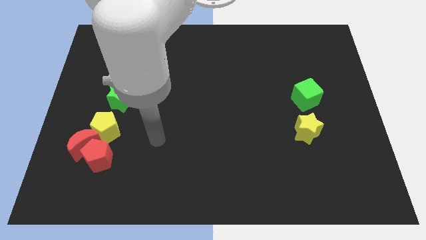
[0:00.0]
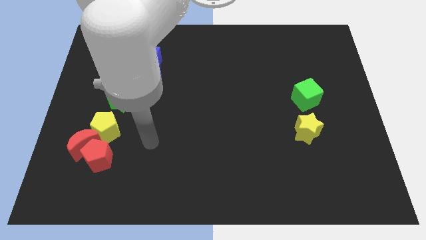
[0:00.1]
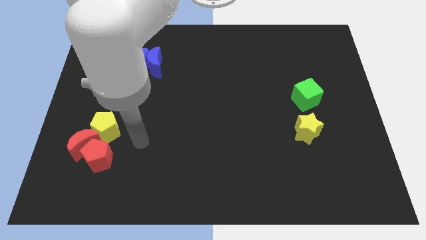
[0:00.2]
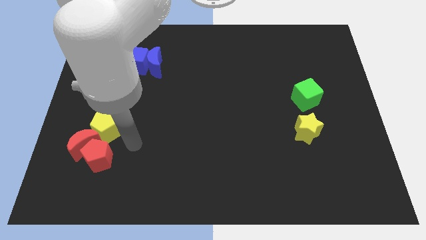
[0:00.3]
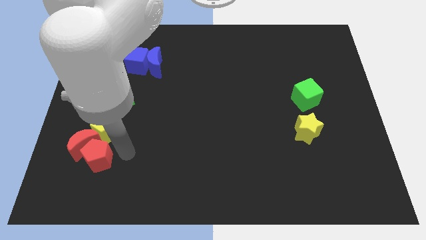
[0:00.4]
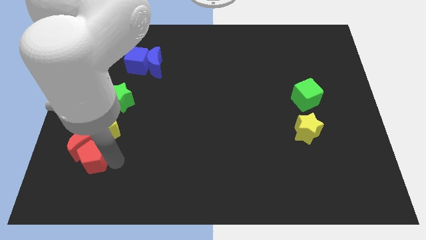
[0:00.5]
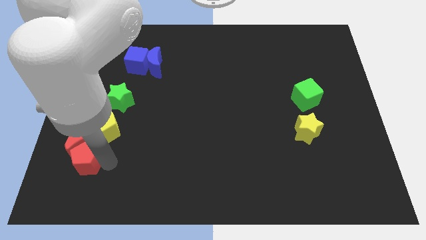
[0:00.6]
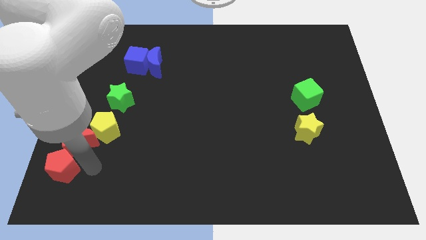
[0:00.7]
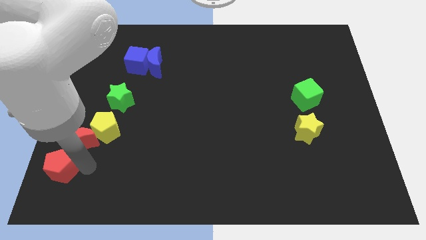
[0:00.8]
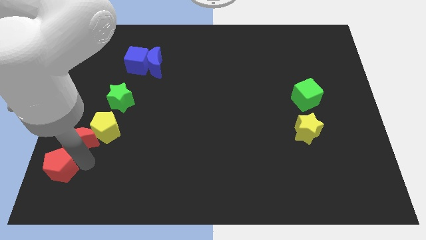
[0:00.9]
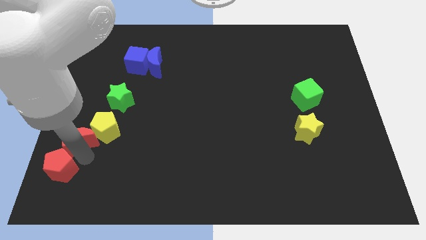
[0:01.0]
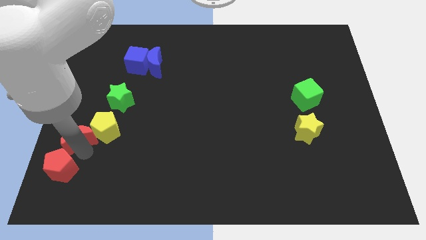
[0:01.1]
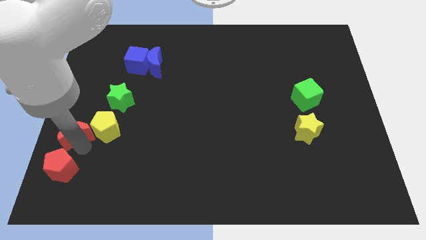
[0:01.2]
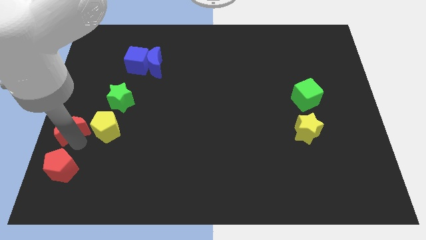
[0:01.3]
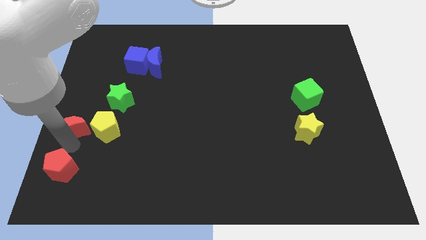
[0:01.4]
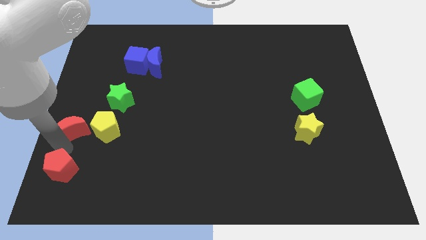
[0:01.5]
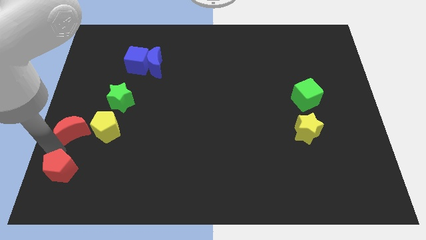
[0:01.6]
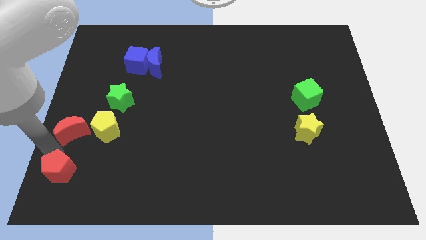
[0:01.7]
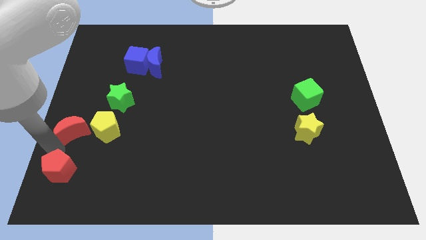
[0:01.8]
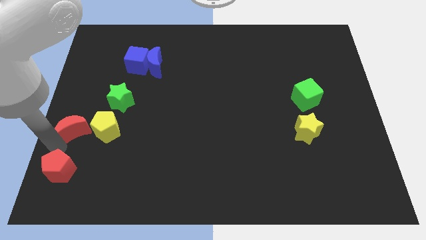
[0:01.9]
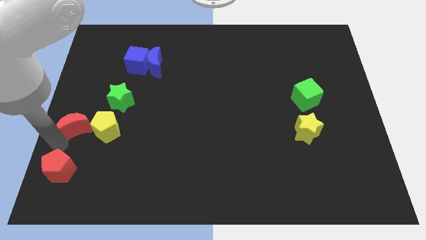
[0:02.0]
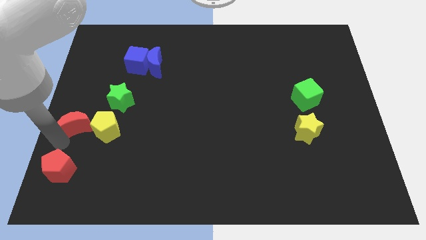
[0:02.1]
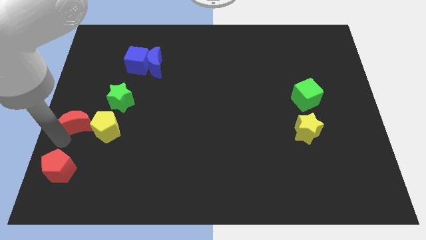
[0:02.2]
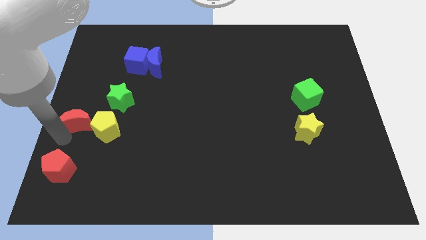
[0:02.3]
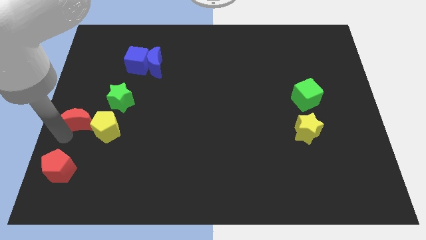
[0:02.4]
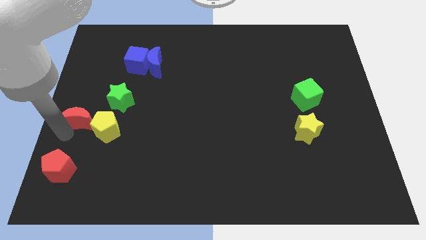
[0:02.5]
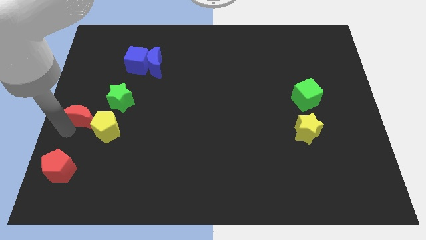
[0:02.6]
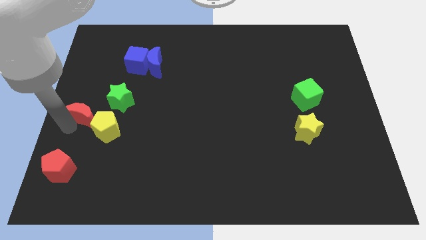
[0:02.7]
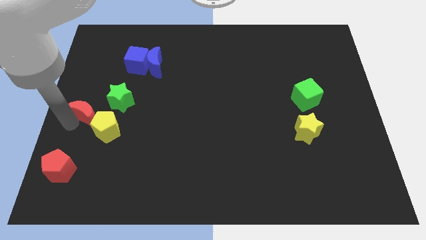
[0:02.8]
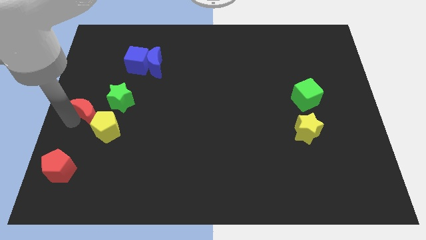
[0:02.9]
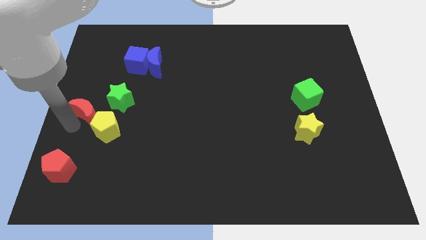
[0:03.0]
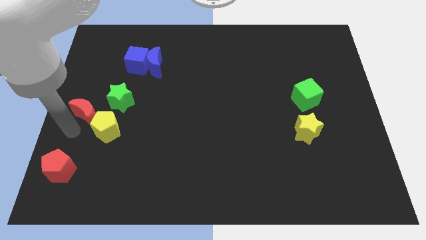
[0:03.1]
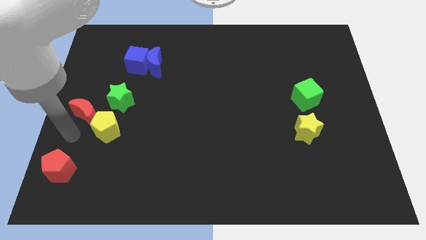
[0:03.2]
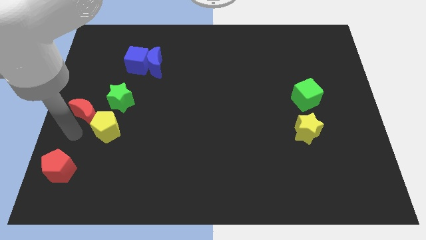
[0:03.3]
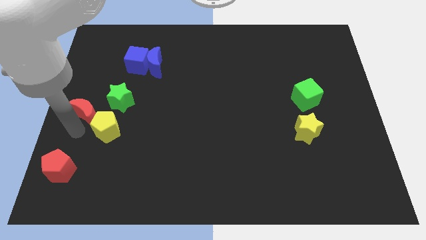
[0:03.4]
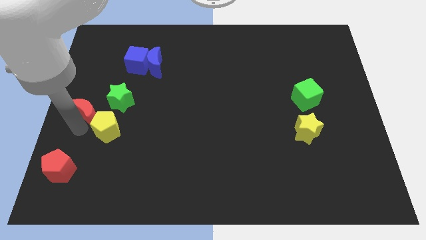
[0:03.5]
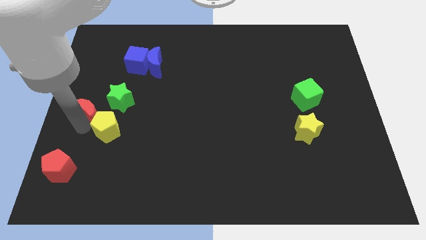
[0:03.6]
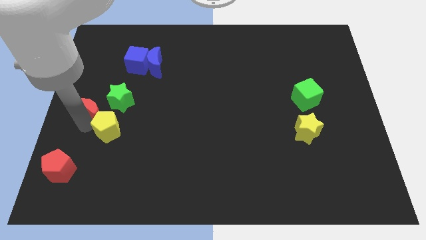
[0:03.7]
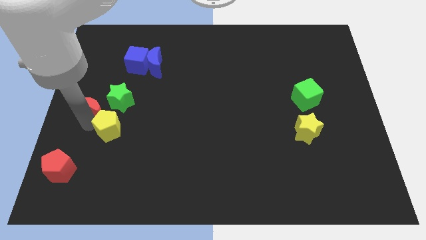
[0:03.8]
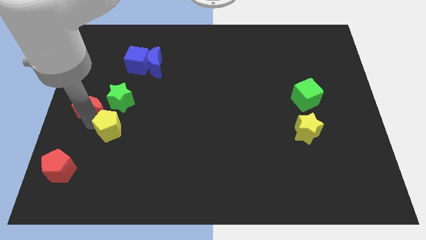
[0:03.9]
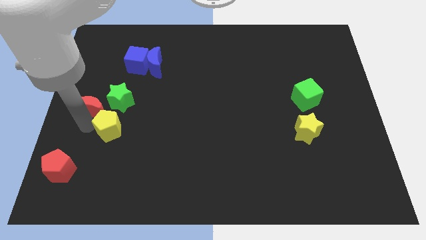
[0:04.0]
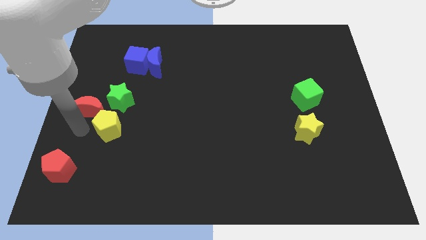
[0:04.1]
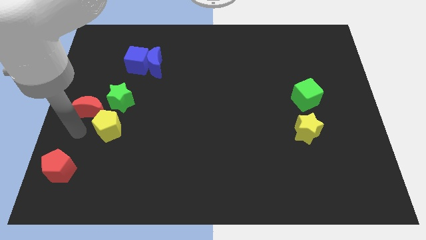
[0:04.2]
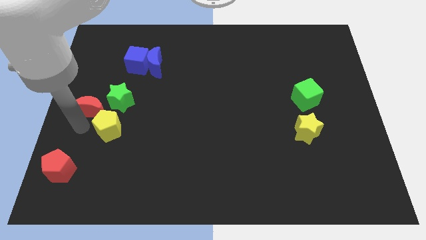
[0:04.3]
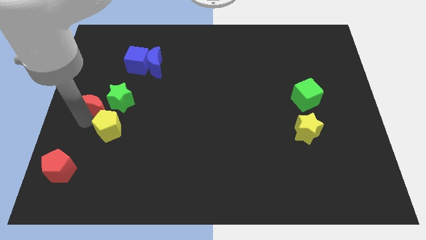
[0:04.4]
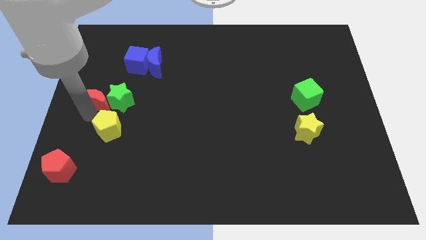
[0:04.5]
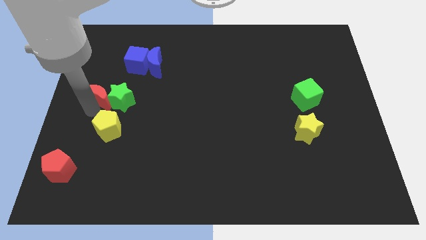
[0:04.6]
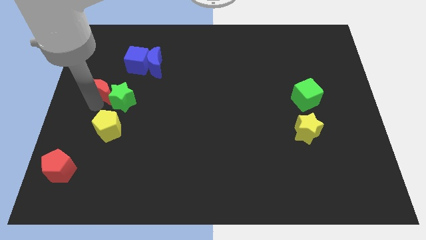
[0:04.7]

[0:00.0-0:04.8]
put the red moon to the bottom left side of the blue cube

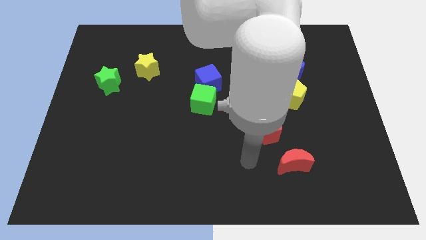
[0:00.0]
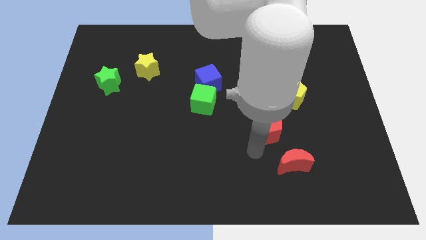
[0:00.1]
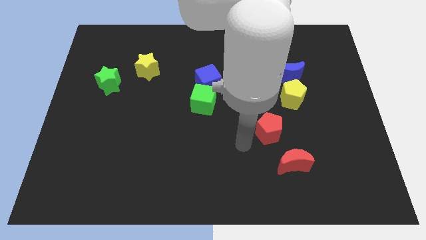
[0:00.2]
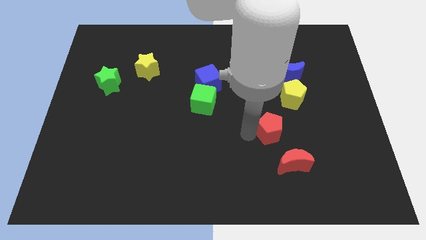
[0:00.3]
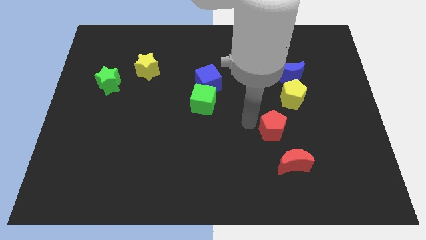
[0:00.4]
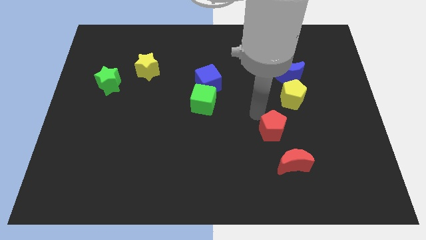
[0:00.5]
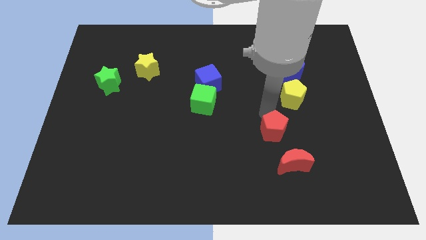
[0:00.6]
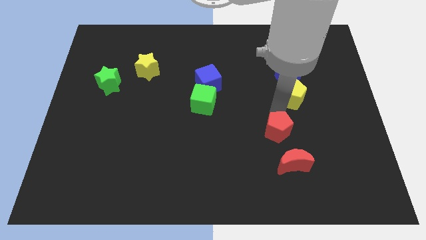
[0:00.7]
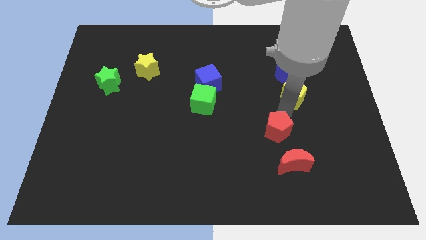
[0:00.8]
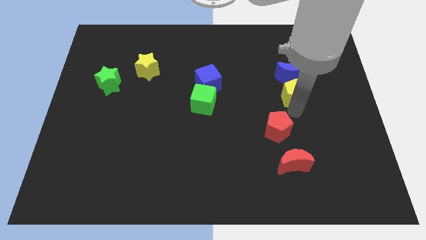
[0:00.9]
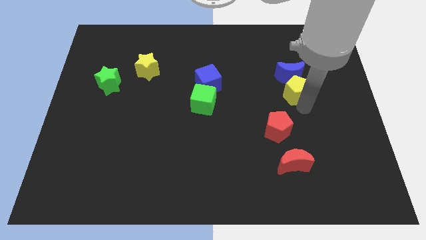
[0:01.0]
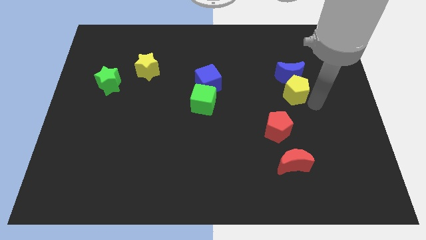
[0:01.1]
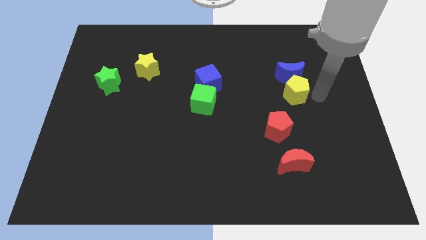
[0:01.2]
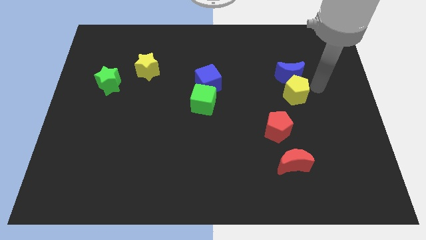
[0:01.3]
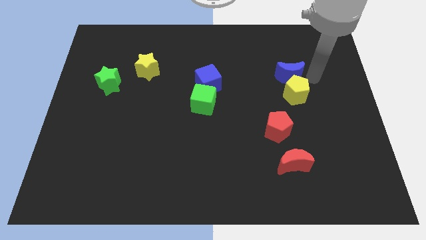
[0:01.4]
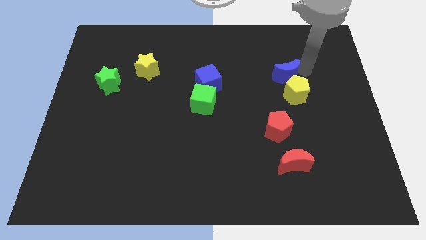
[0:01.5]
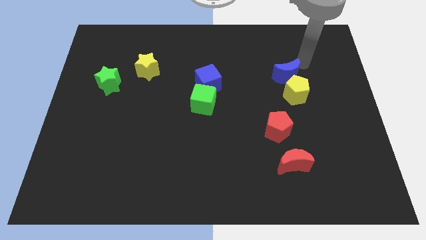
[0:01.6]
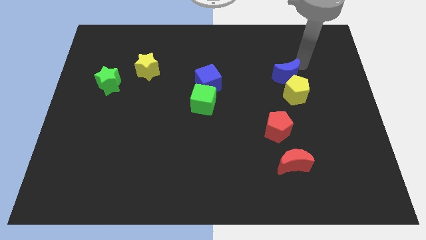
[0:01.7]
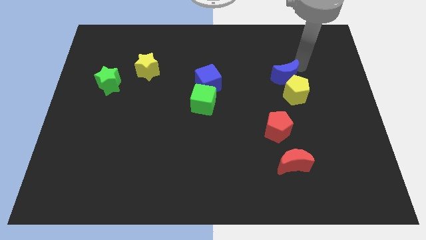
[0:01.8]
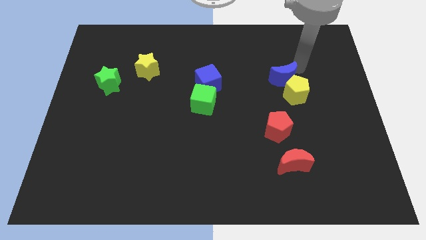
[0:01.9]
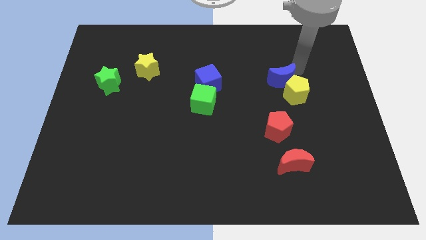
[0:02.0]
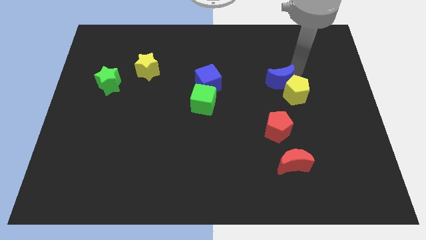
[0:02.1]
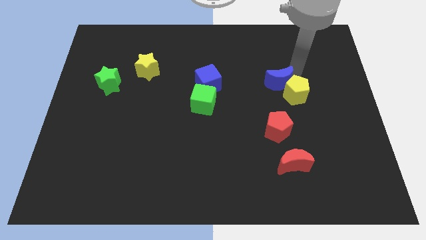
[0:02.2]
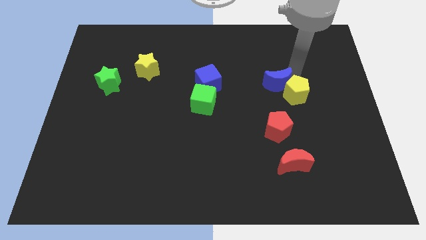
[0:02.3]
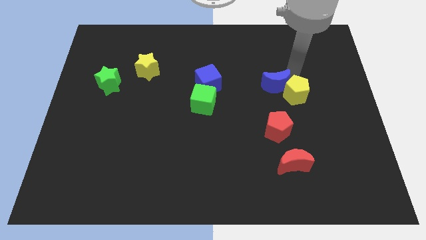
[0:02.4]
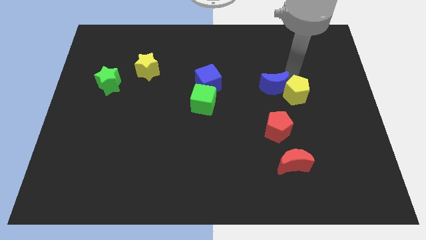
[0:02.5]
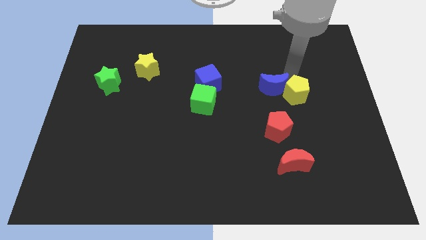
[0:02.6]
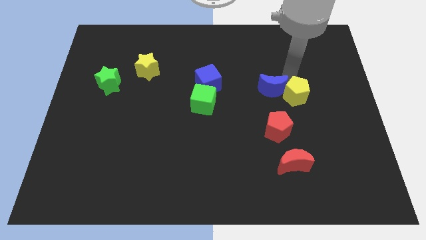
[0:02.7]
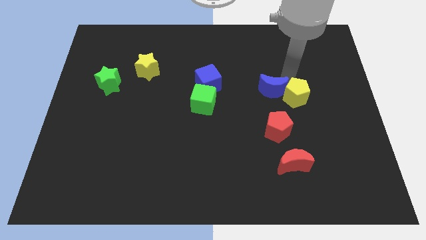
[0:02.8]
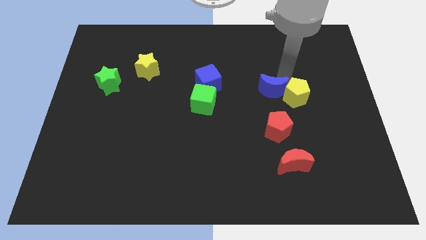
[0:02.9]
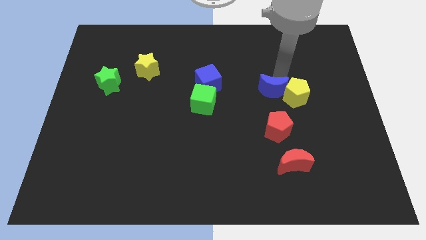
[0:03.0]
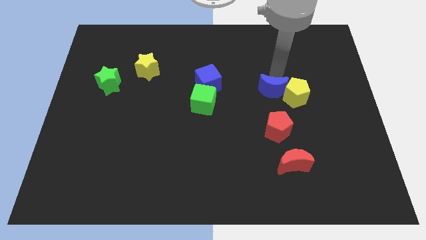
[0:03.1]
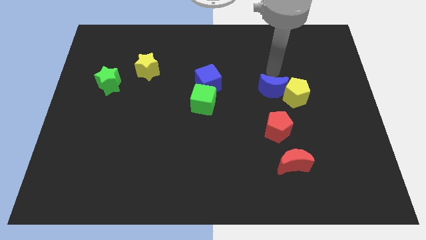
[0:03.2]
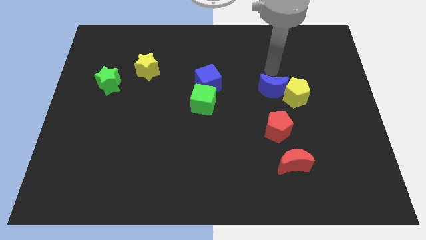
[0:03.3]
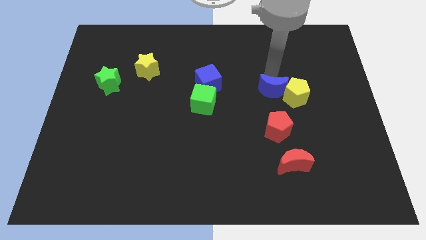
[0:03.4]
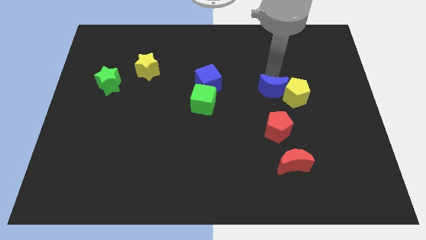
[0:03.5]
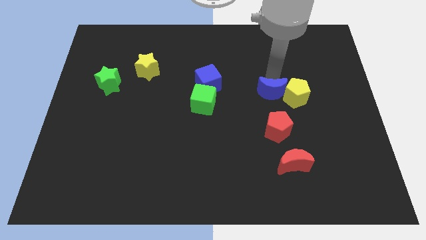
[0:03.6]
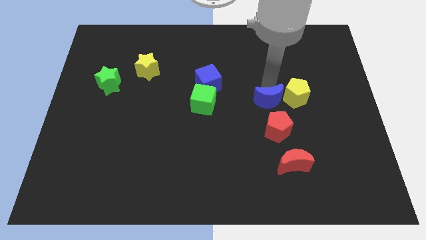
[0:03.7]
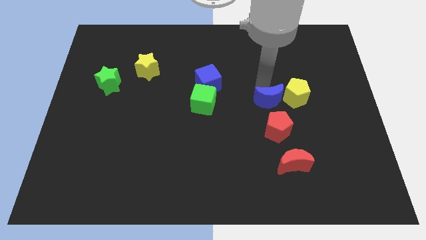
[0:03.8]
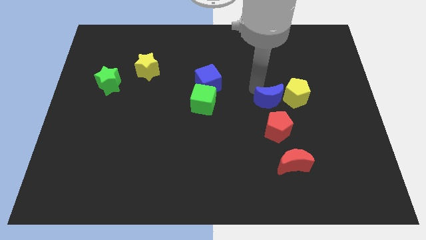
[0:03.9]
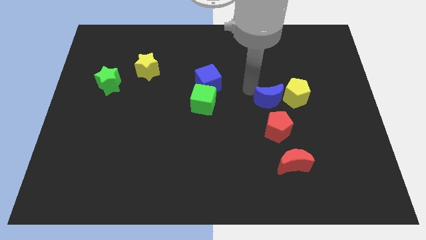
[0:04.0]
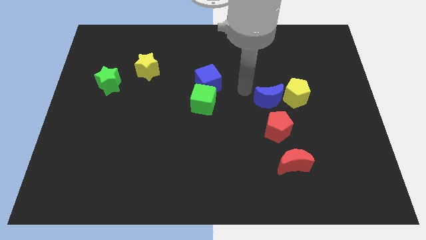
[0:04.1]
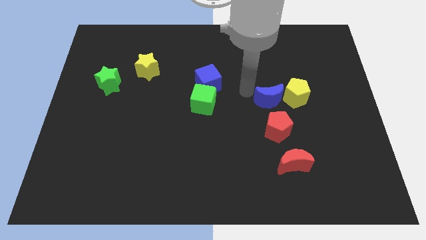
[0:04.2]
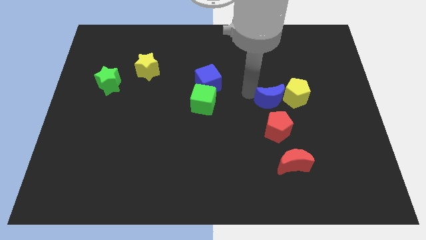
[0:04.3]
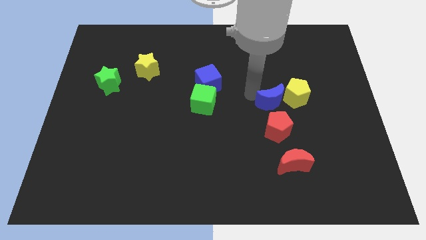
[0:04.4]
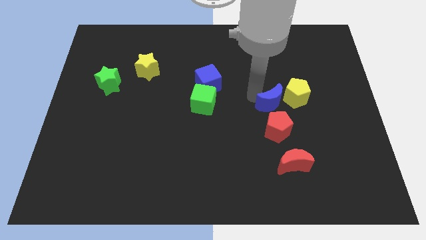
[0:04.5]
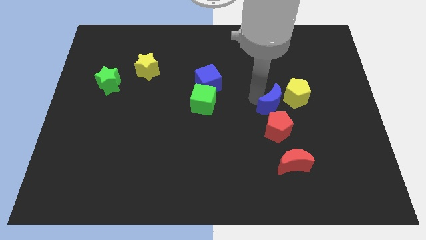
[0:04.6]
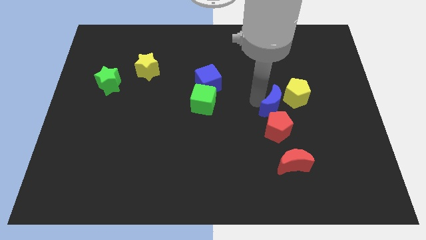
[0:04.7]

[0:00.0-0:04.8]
push the blue moon diagonally up and to the right of the red pentagon
